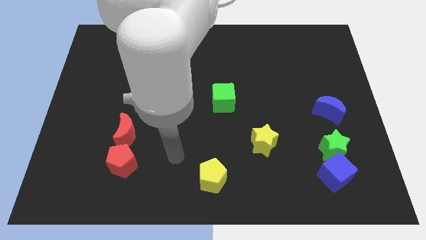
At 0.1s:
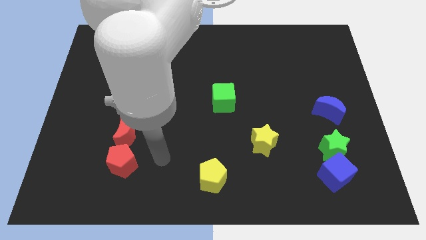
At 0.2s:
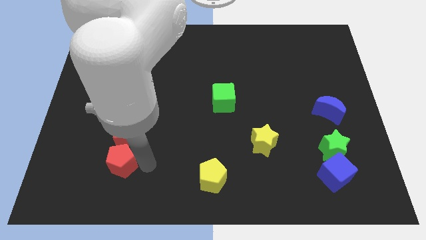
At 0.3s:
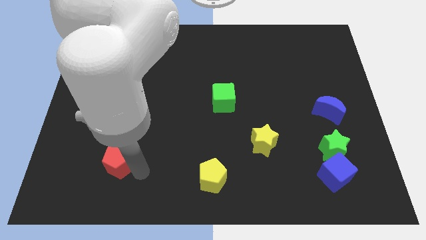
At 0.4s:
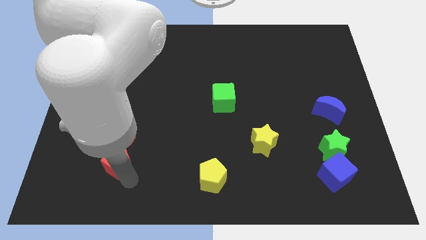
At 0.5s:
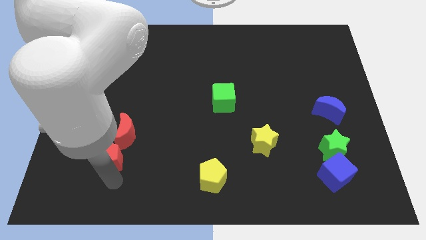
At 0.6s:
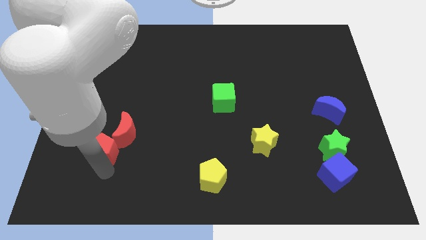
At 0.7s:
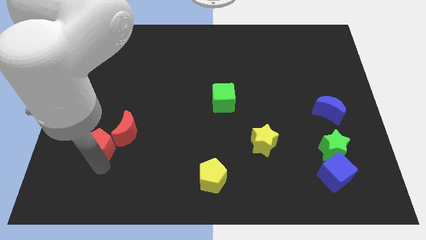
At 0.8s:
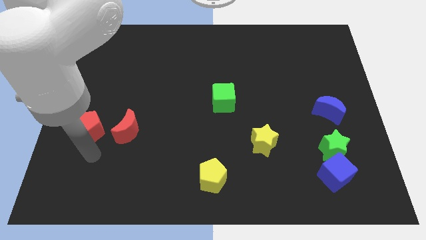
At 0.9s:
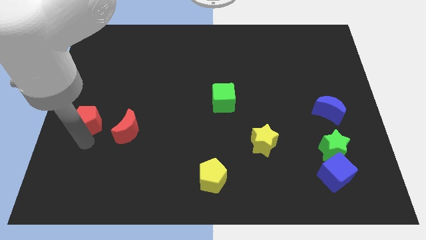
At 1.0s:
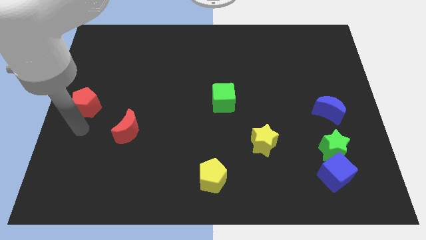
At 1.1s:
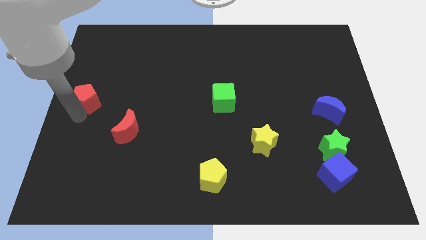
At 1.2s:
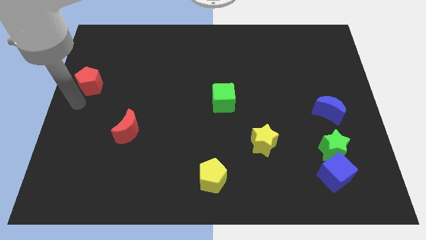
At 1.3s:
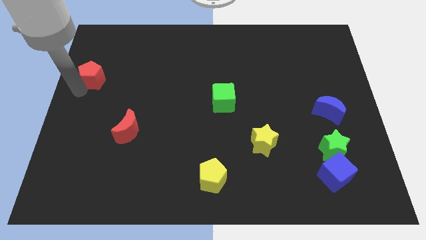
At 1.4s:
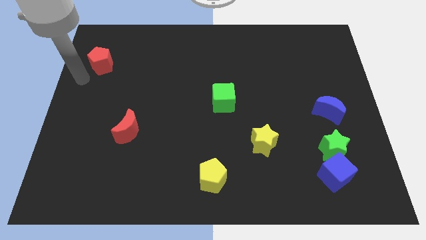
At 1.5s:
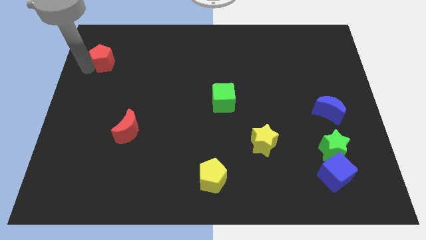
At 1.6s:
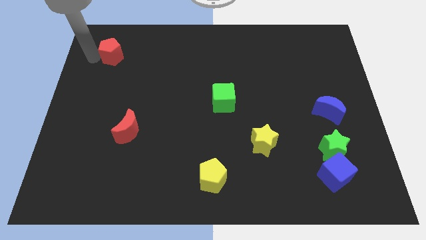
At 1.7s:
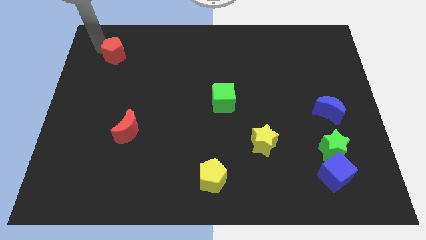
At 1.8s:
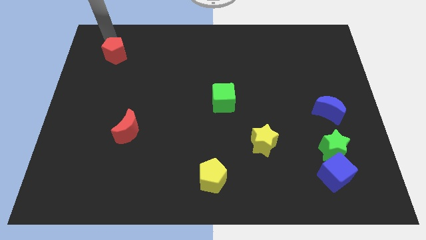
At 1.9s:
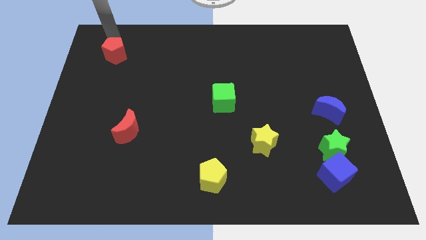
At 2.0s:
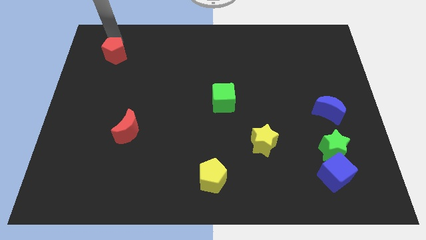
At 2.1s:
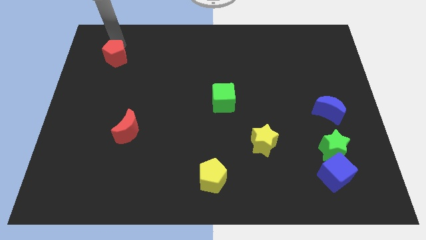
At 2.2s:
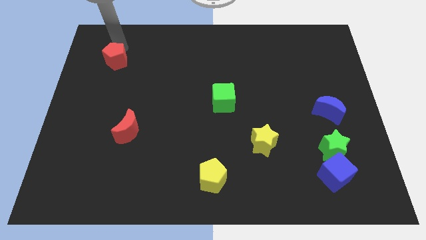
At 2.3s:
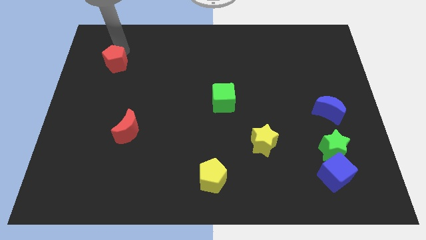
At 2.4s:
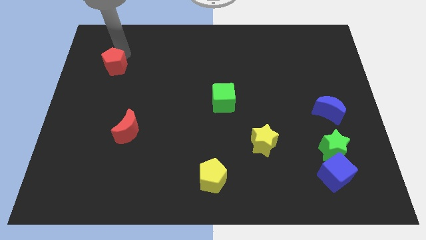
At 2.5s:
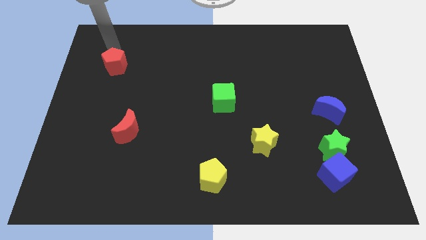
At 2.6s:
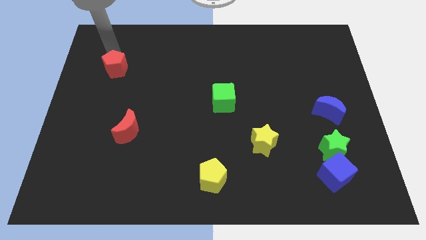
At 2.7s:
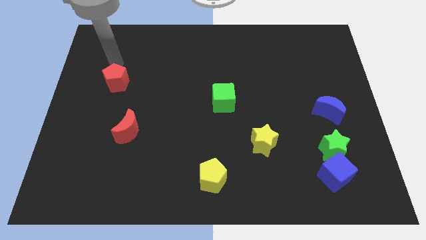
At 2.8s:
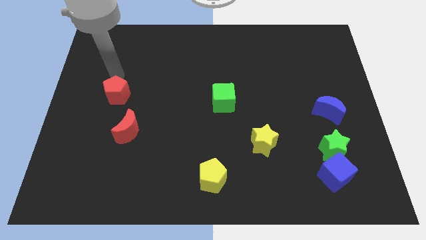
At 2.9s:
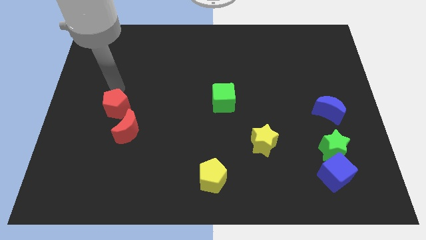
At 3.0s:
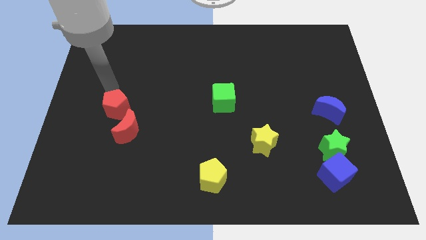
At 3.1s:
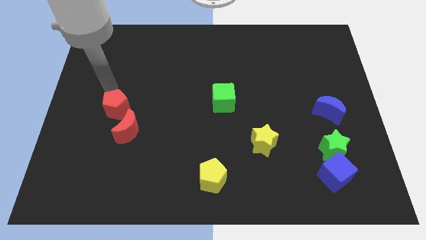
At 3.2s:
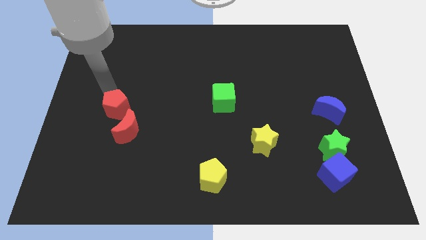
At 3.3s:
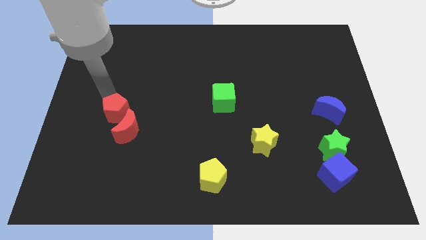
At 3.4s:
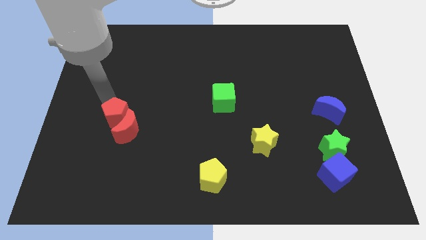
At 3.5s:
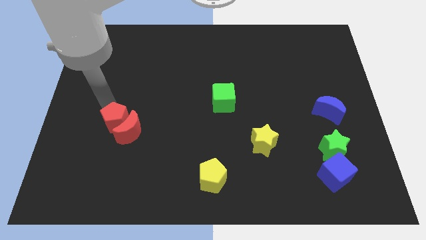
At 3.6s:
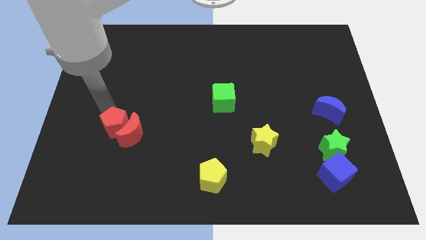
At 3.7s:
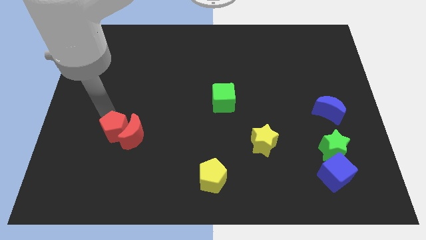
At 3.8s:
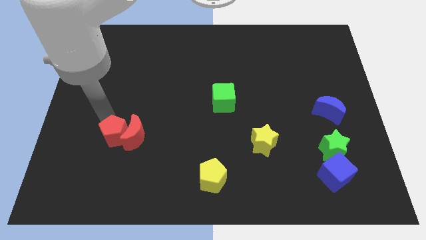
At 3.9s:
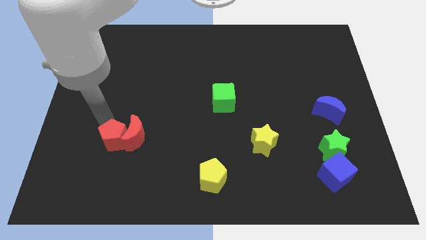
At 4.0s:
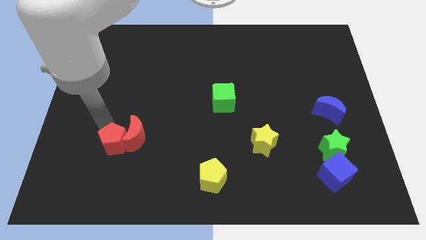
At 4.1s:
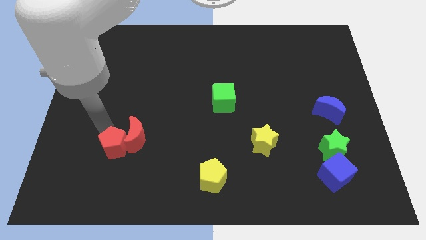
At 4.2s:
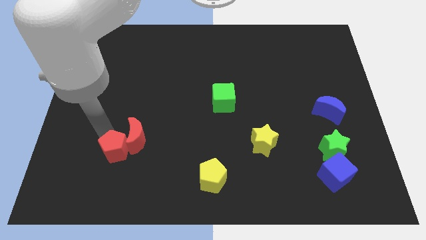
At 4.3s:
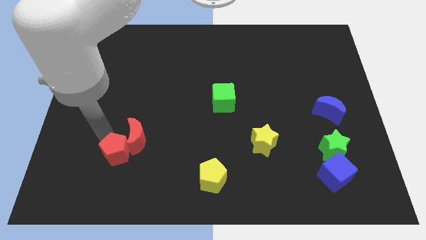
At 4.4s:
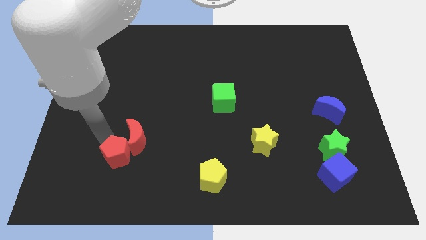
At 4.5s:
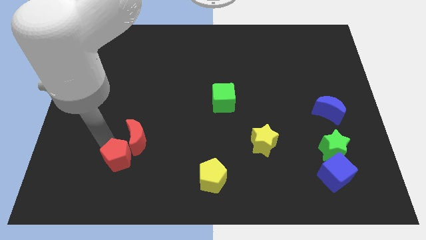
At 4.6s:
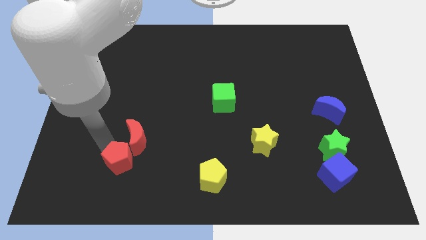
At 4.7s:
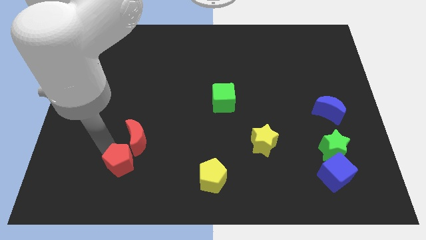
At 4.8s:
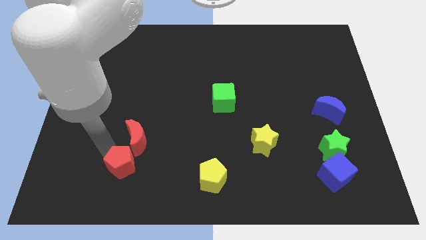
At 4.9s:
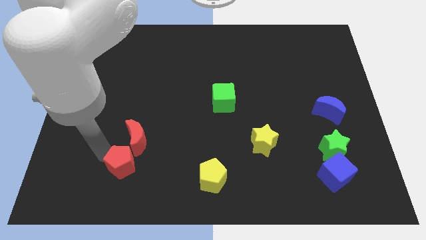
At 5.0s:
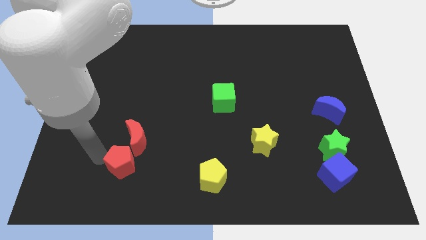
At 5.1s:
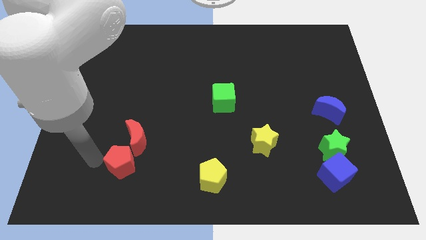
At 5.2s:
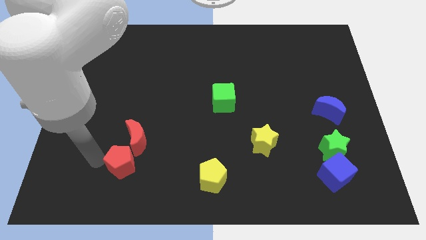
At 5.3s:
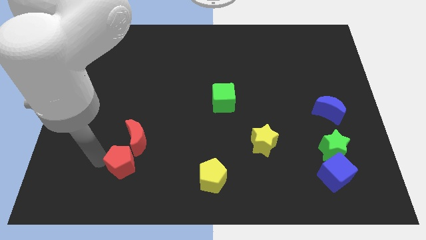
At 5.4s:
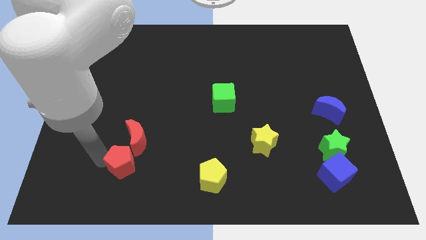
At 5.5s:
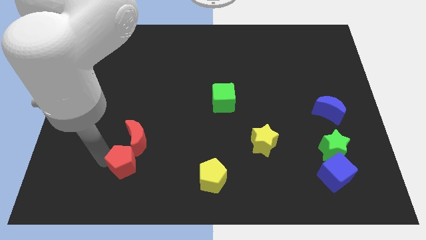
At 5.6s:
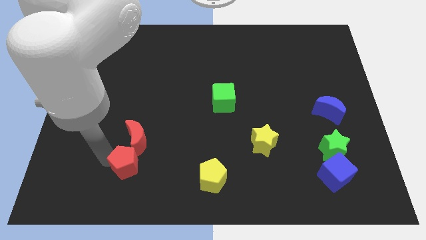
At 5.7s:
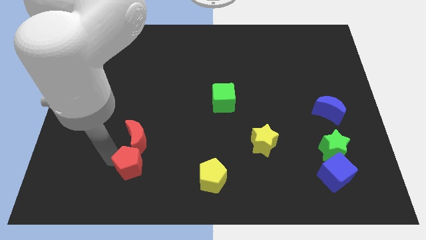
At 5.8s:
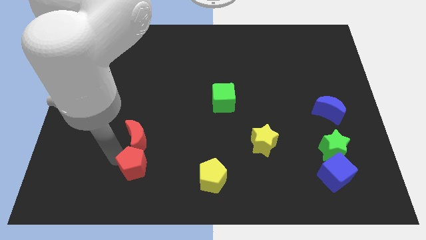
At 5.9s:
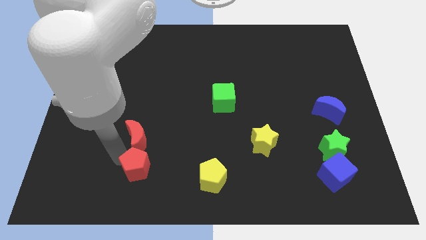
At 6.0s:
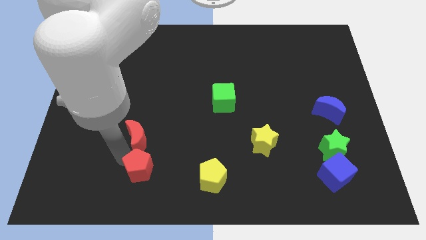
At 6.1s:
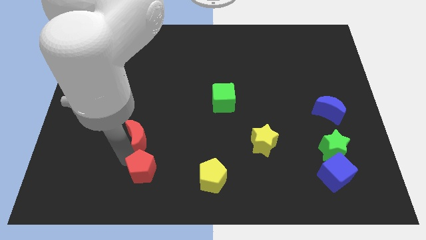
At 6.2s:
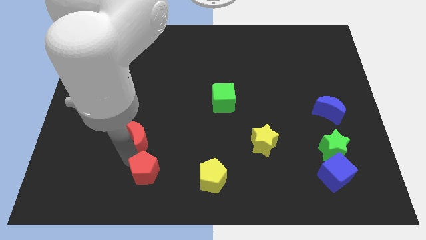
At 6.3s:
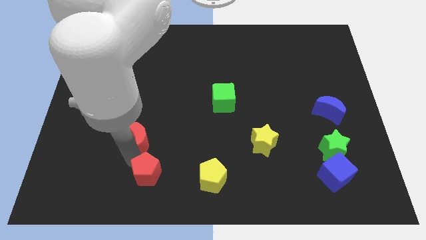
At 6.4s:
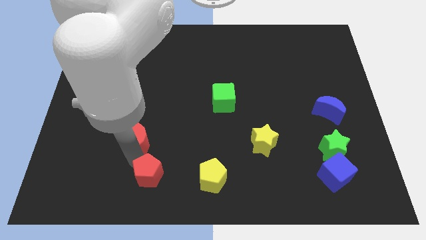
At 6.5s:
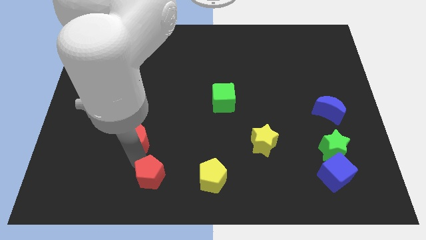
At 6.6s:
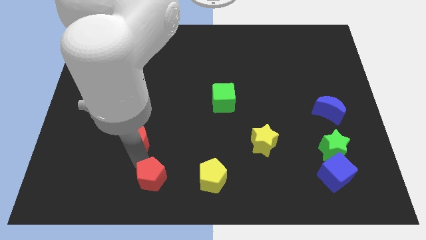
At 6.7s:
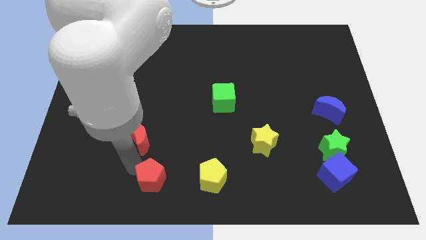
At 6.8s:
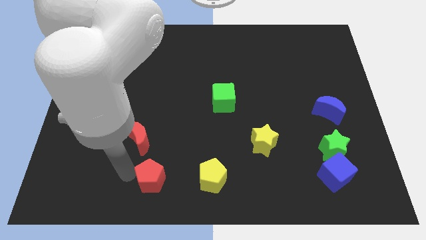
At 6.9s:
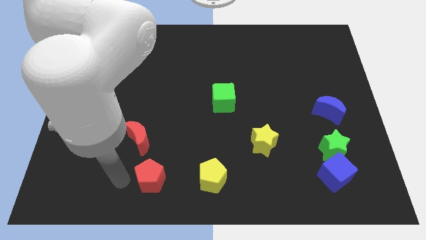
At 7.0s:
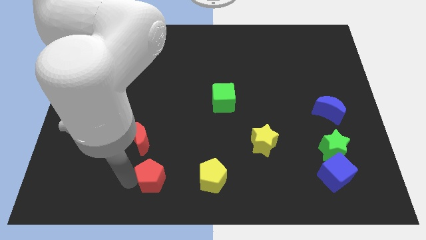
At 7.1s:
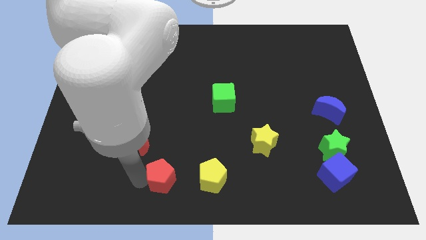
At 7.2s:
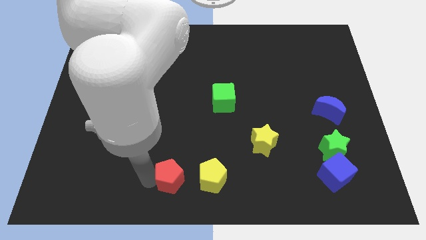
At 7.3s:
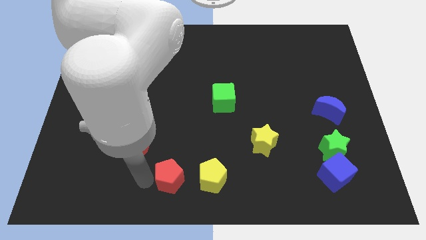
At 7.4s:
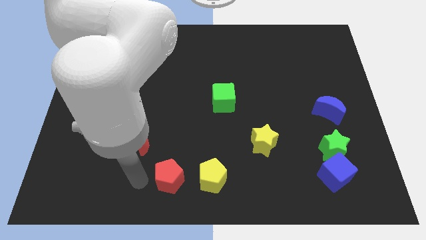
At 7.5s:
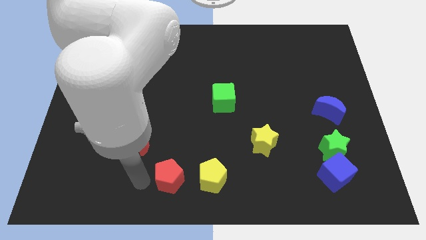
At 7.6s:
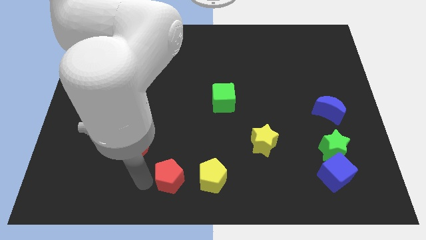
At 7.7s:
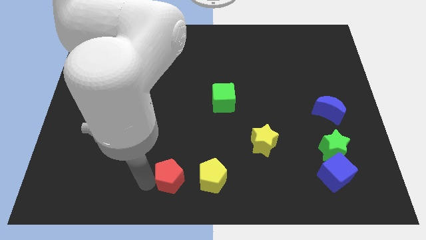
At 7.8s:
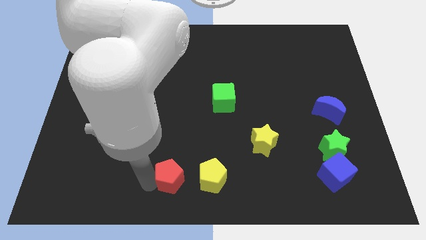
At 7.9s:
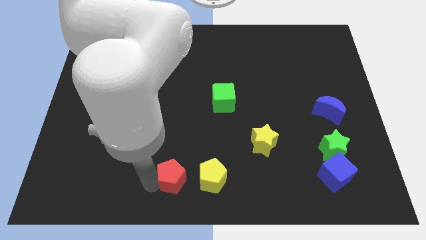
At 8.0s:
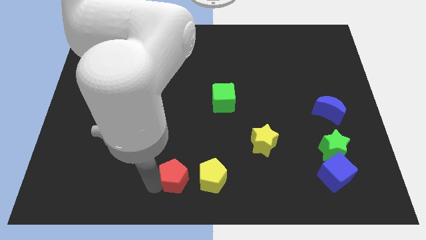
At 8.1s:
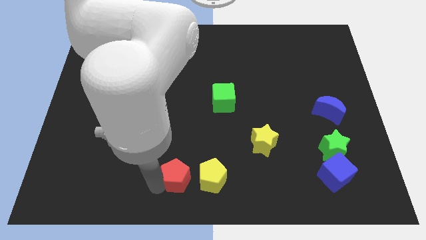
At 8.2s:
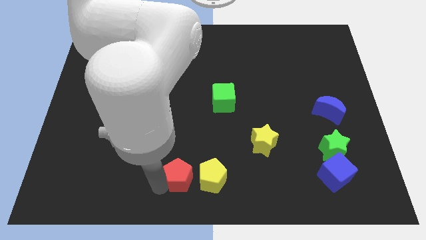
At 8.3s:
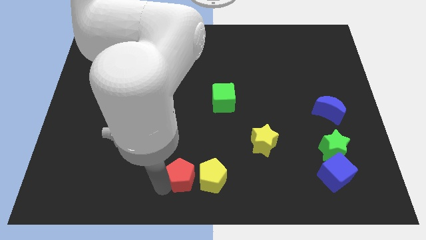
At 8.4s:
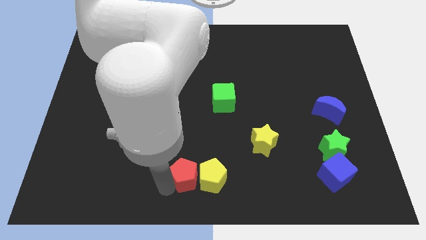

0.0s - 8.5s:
move the red pentagon next to the yellow pentagon
